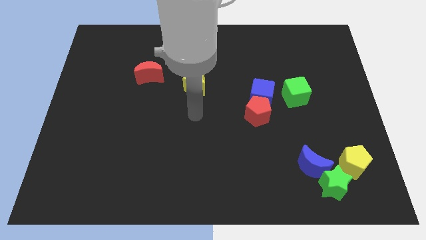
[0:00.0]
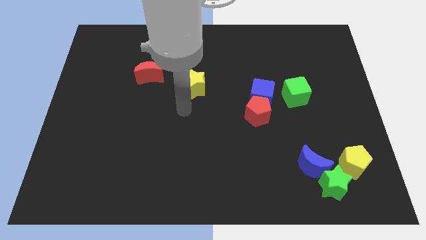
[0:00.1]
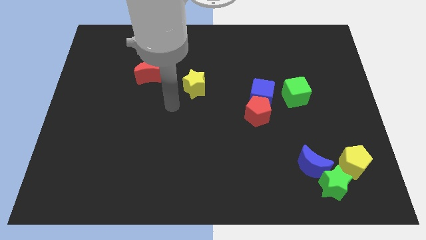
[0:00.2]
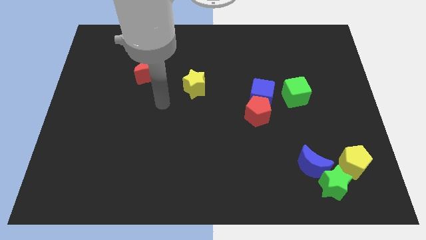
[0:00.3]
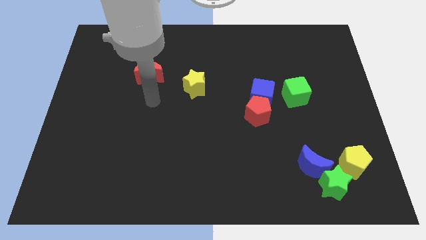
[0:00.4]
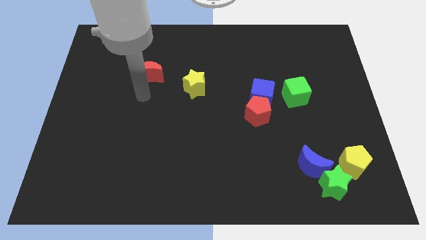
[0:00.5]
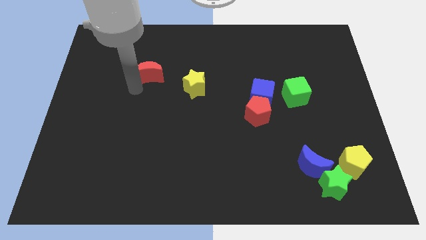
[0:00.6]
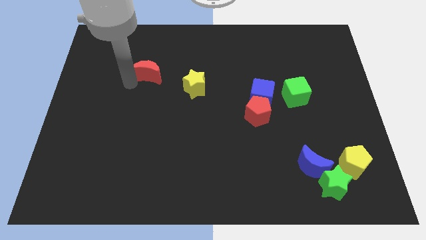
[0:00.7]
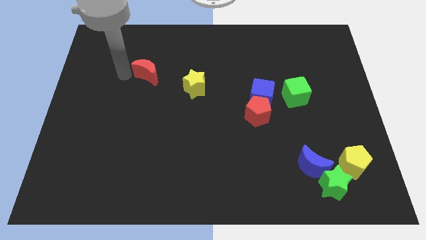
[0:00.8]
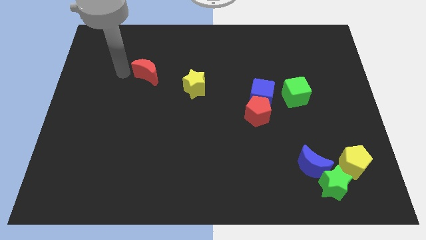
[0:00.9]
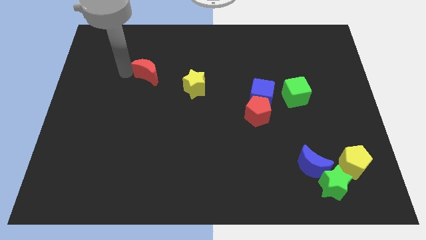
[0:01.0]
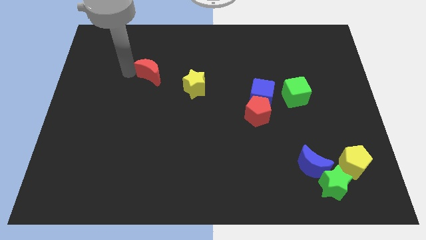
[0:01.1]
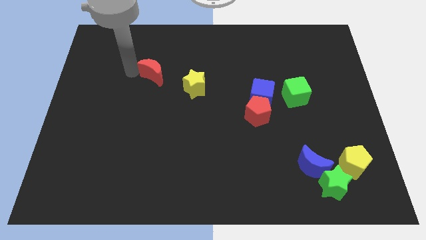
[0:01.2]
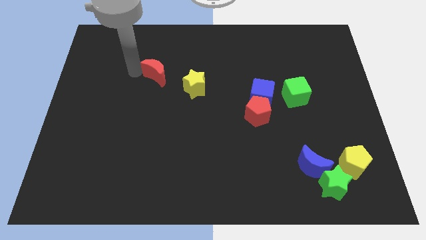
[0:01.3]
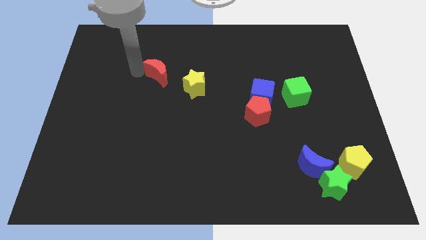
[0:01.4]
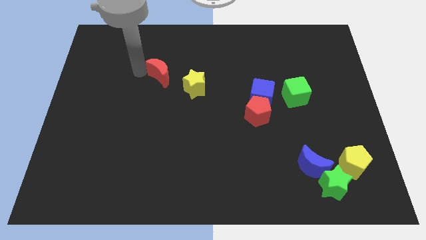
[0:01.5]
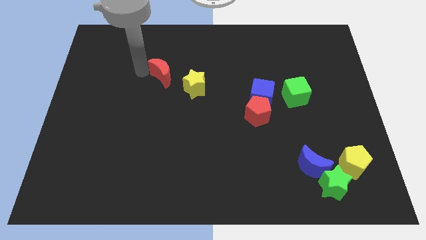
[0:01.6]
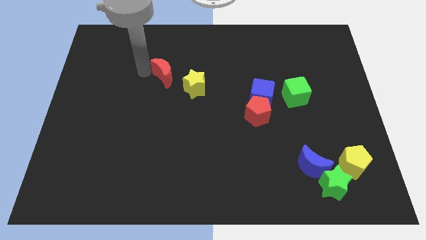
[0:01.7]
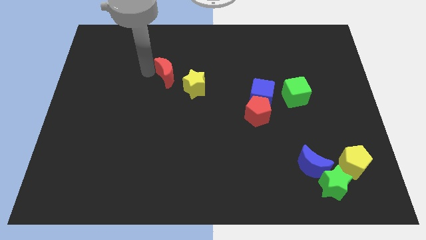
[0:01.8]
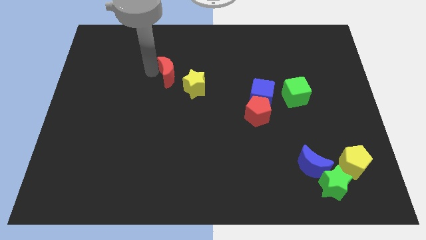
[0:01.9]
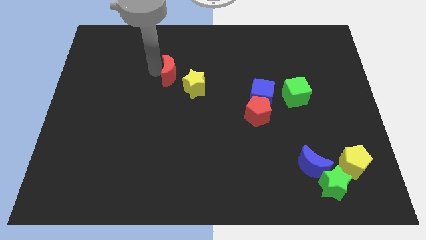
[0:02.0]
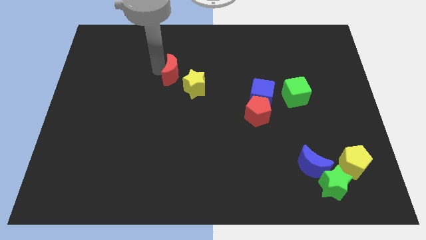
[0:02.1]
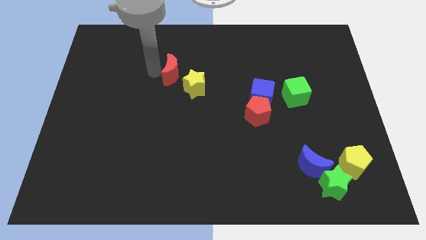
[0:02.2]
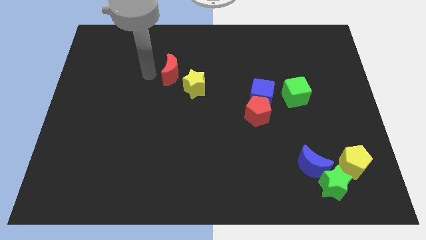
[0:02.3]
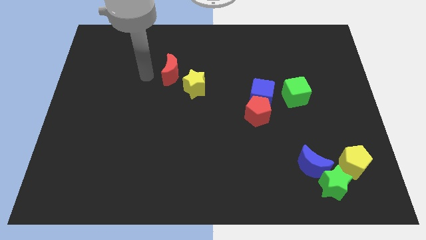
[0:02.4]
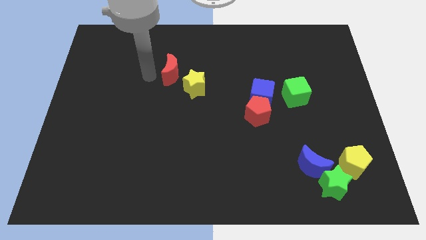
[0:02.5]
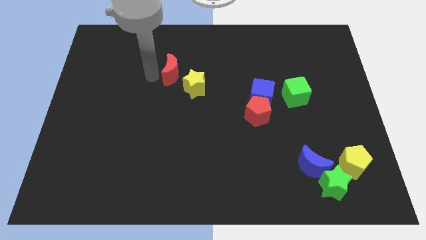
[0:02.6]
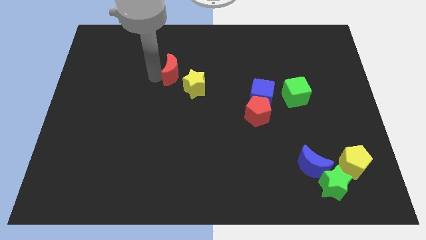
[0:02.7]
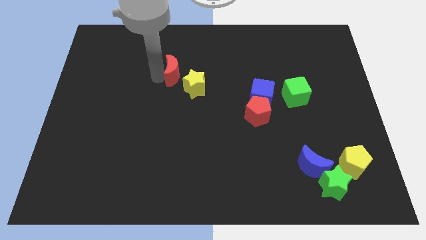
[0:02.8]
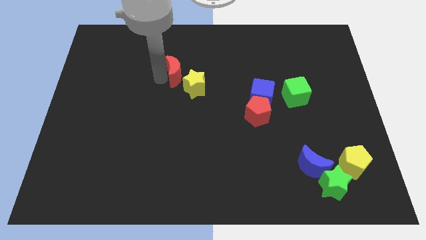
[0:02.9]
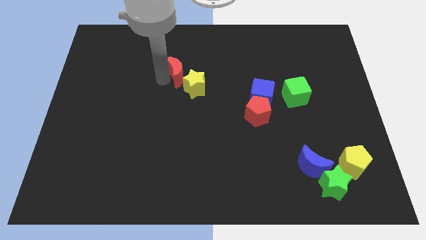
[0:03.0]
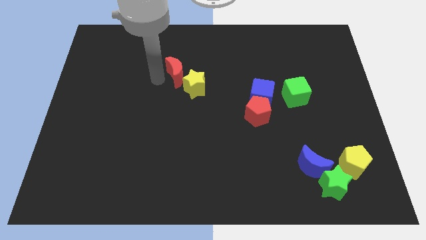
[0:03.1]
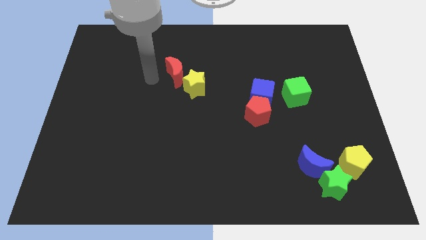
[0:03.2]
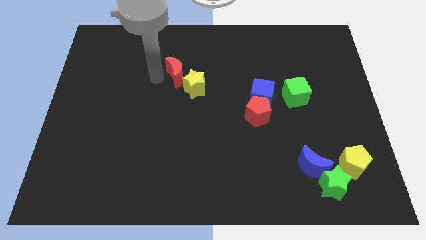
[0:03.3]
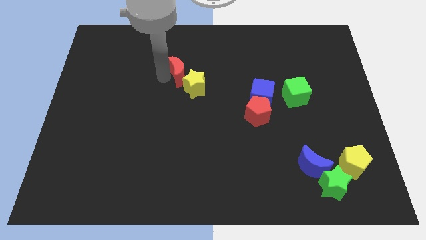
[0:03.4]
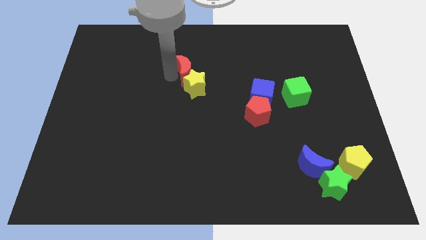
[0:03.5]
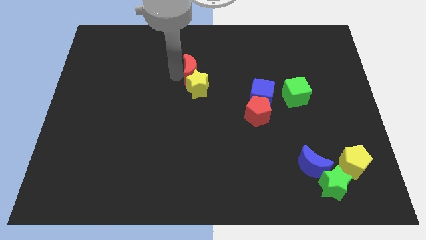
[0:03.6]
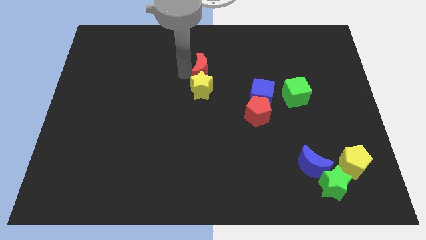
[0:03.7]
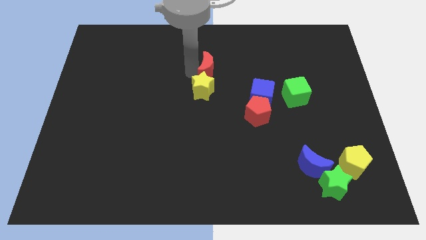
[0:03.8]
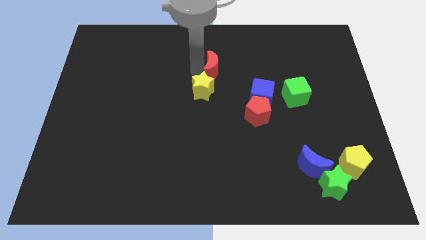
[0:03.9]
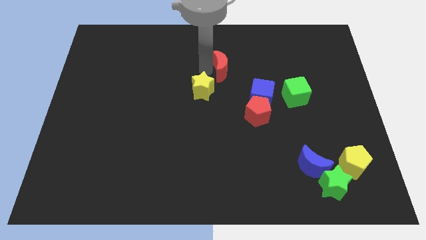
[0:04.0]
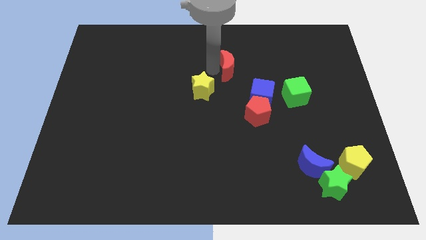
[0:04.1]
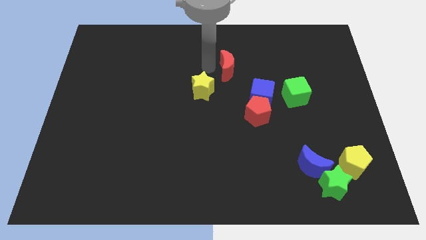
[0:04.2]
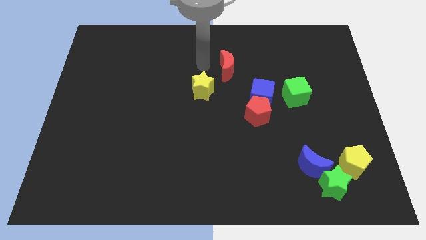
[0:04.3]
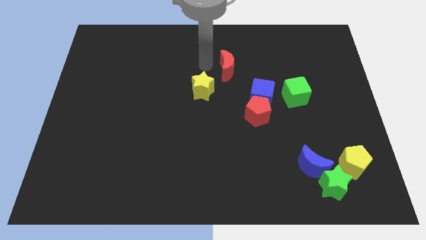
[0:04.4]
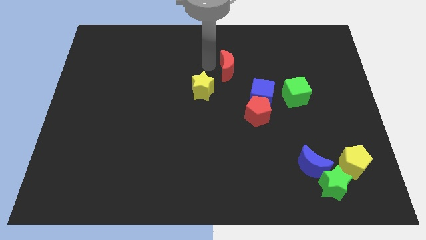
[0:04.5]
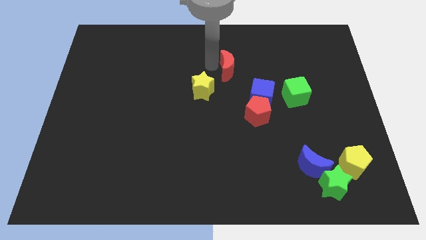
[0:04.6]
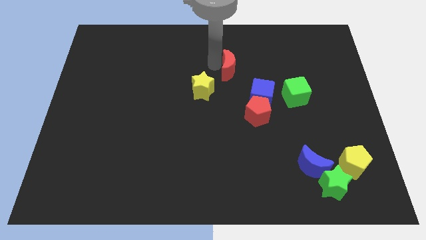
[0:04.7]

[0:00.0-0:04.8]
slide the red moon to the right

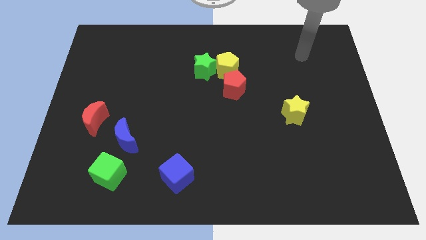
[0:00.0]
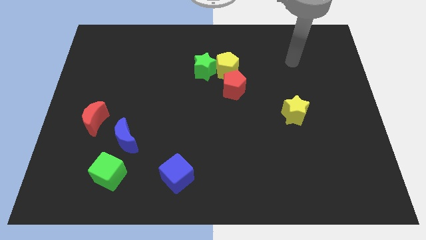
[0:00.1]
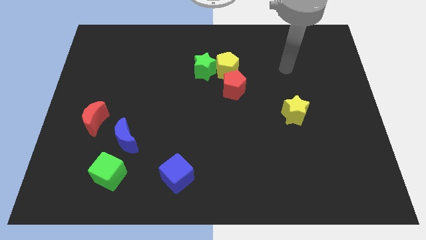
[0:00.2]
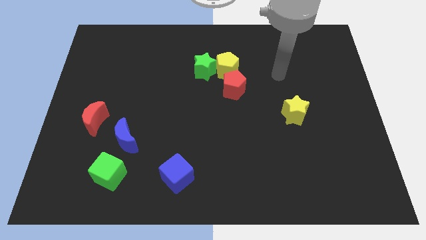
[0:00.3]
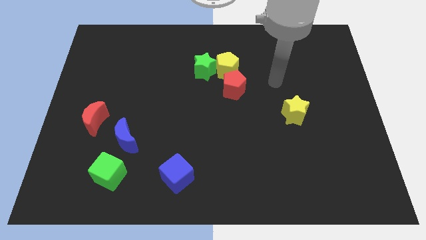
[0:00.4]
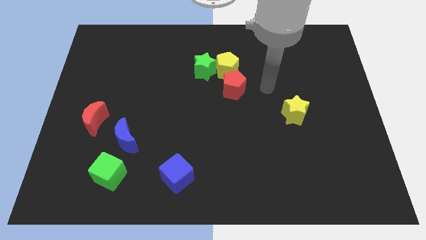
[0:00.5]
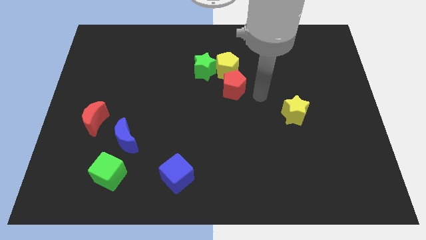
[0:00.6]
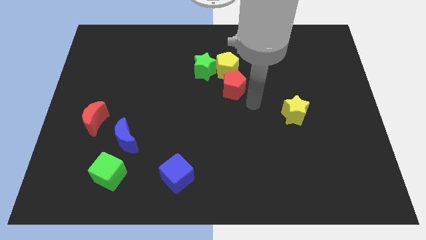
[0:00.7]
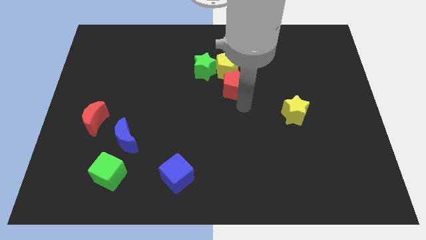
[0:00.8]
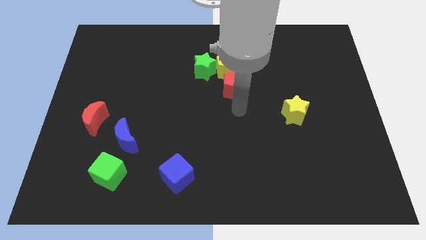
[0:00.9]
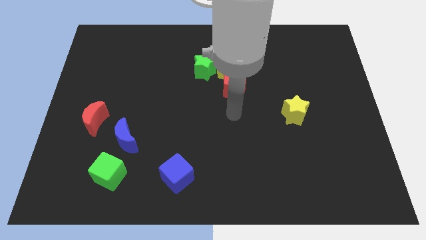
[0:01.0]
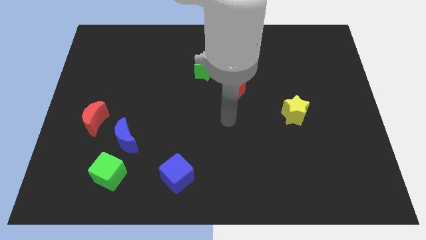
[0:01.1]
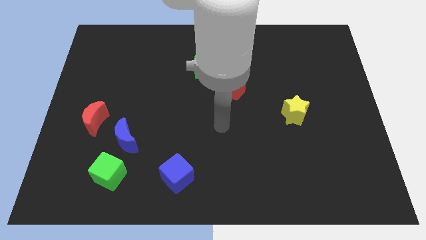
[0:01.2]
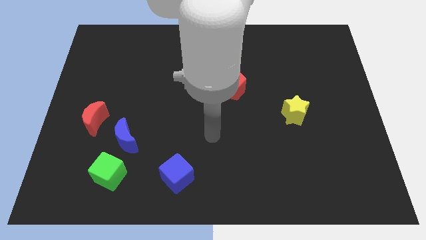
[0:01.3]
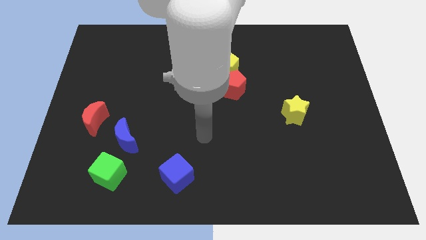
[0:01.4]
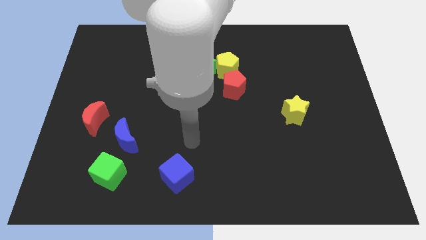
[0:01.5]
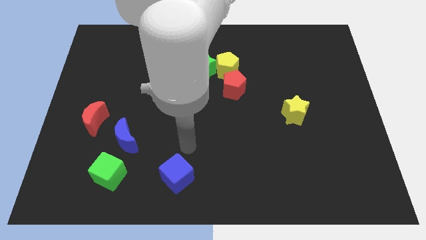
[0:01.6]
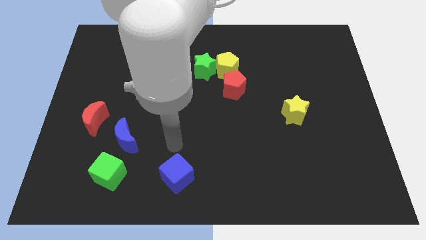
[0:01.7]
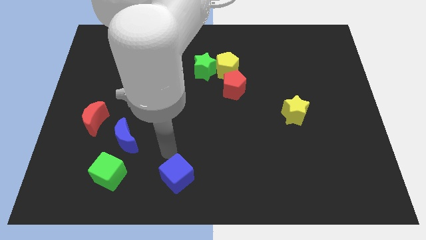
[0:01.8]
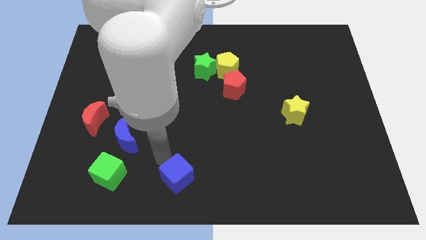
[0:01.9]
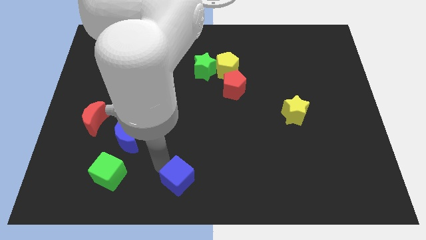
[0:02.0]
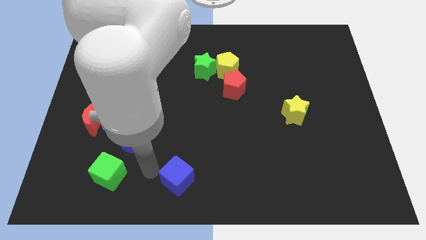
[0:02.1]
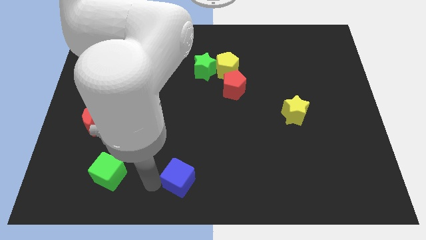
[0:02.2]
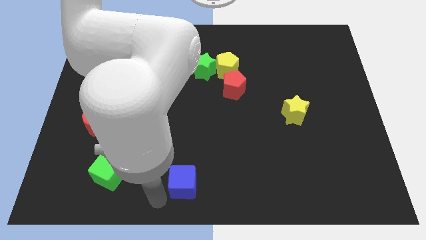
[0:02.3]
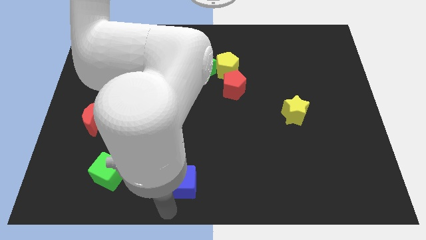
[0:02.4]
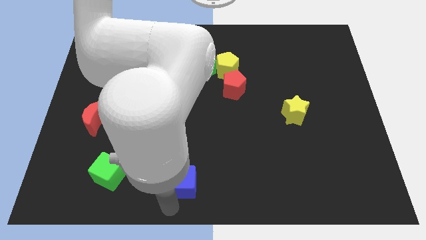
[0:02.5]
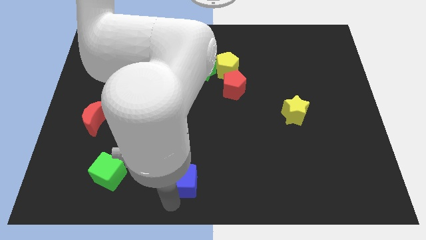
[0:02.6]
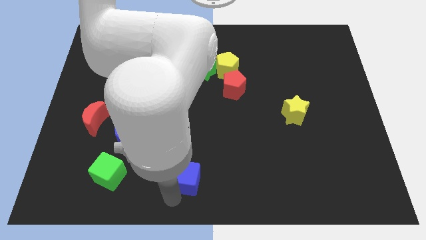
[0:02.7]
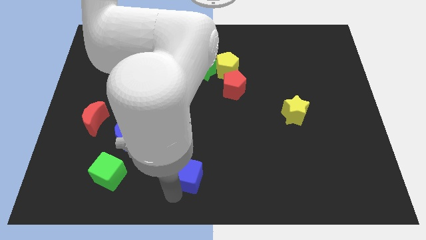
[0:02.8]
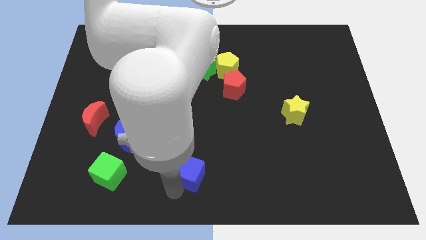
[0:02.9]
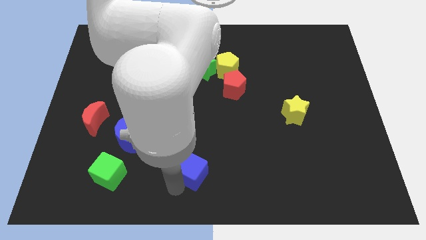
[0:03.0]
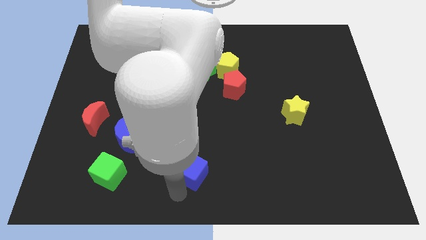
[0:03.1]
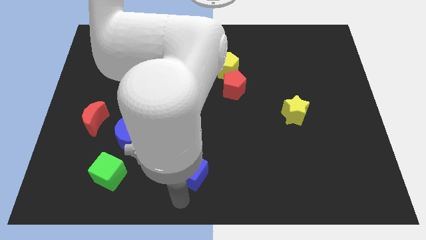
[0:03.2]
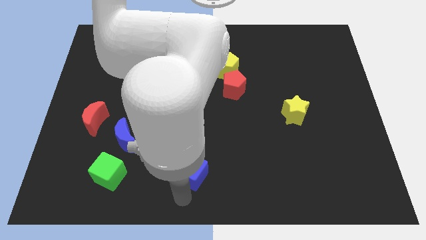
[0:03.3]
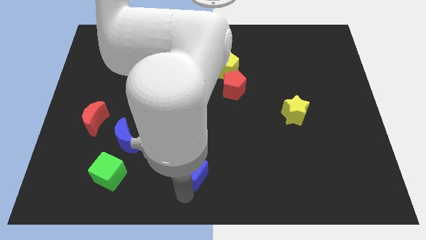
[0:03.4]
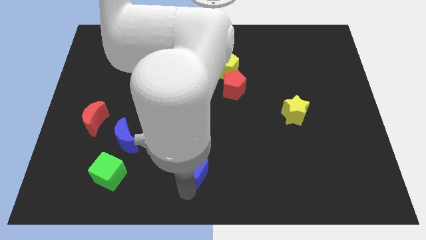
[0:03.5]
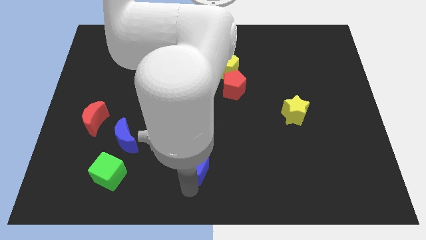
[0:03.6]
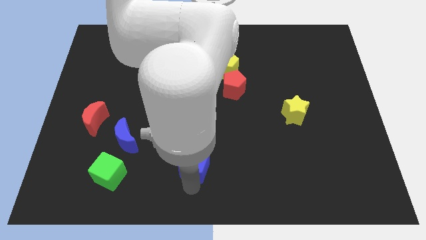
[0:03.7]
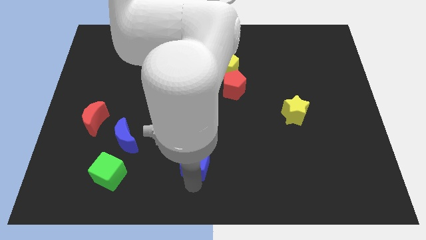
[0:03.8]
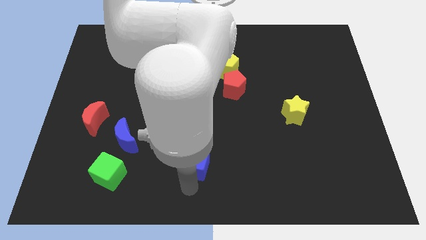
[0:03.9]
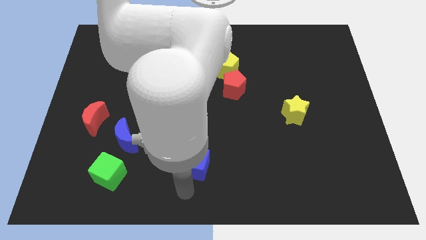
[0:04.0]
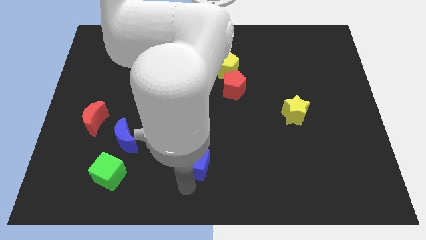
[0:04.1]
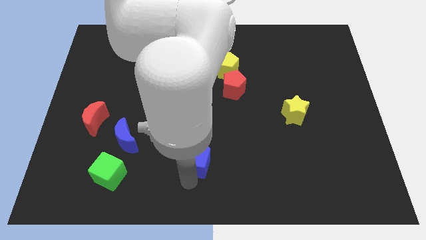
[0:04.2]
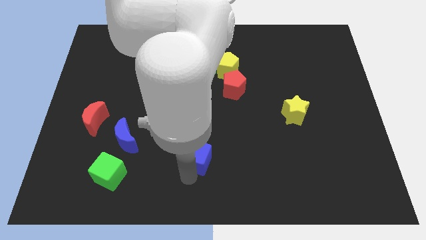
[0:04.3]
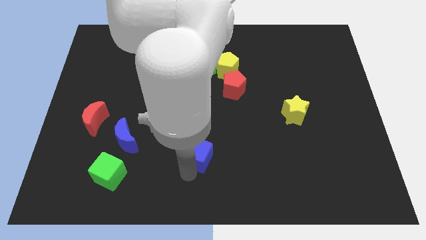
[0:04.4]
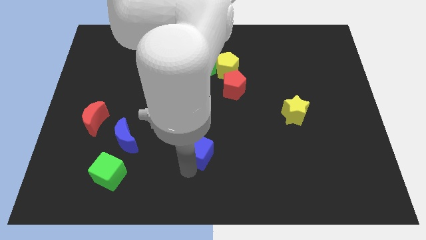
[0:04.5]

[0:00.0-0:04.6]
slide the blue cube up and to the right a little bit
